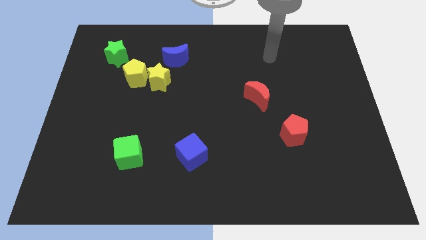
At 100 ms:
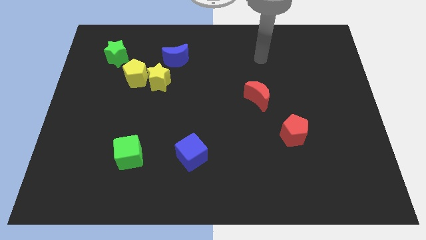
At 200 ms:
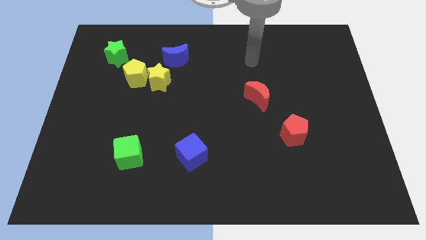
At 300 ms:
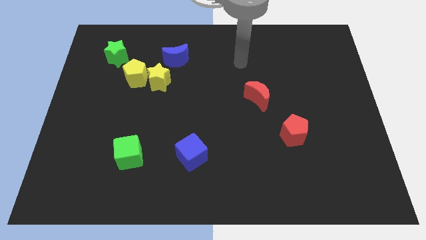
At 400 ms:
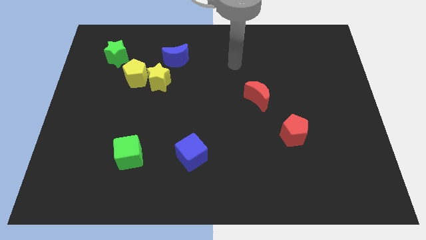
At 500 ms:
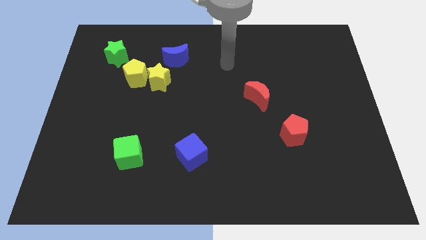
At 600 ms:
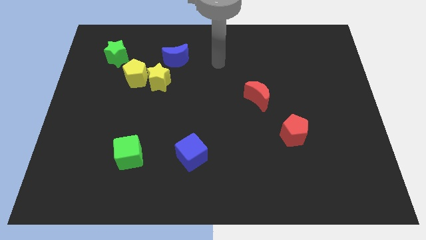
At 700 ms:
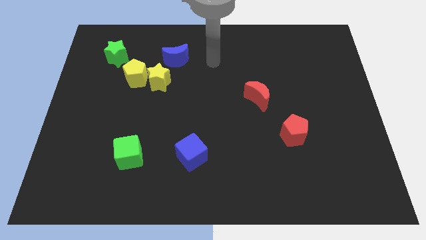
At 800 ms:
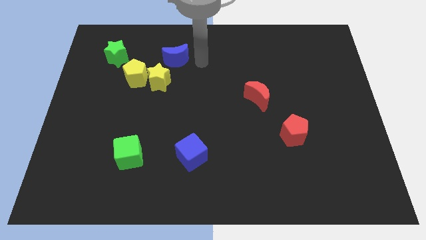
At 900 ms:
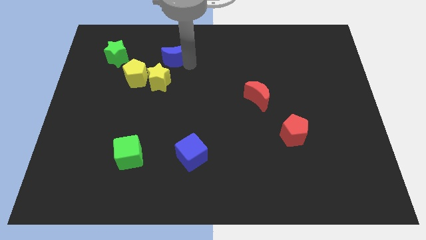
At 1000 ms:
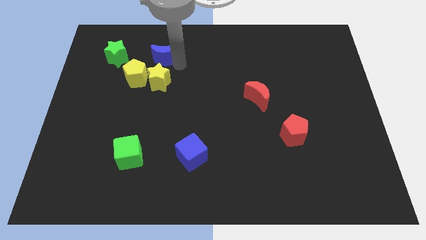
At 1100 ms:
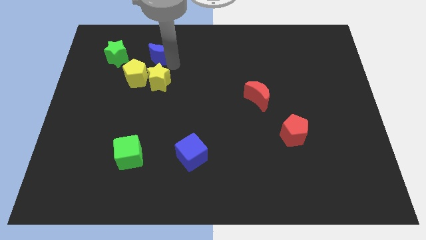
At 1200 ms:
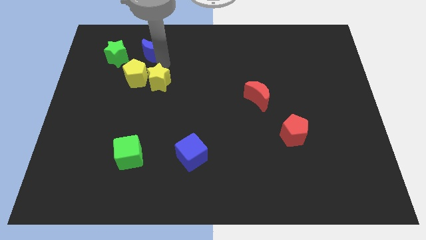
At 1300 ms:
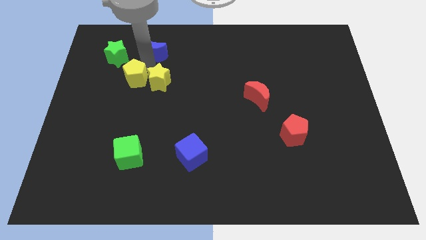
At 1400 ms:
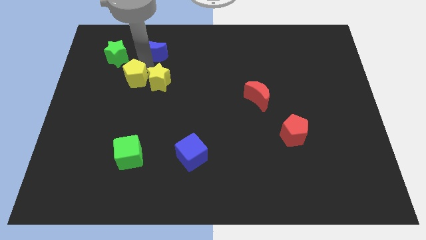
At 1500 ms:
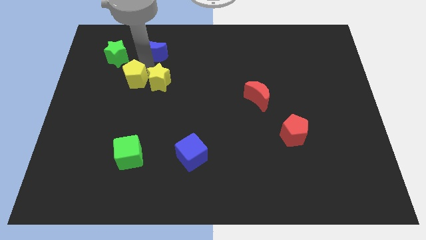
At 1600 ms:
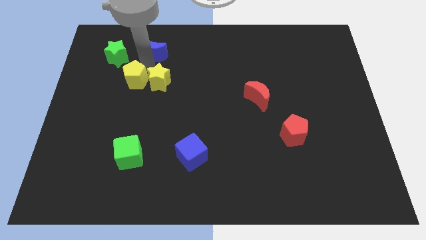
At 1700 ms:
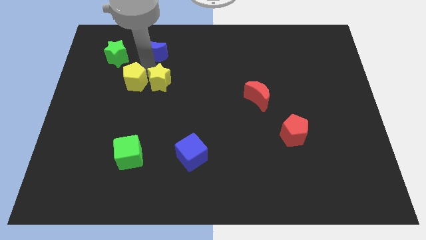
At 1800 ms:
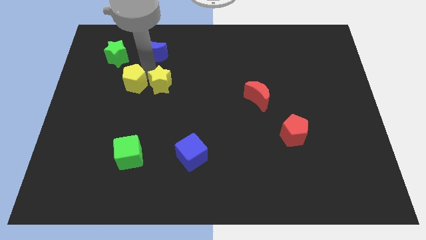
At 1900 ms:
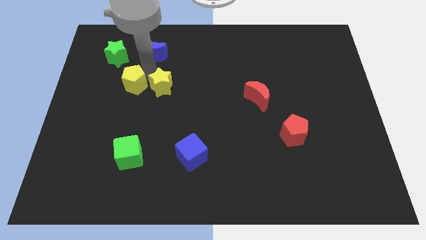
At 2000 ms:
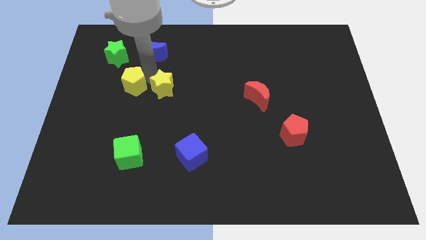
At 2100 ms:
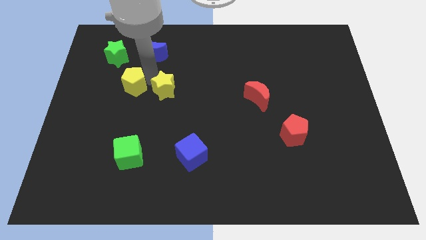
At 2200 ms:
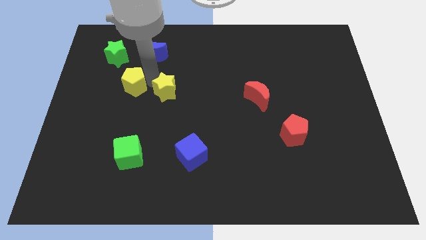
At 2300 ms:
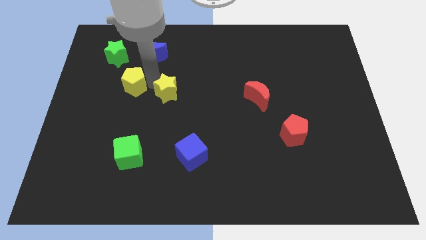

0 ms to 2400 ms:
pull the yellow star apart from the yellow pentagon and blue moon

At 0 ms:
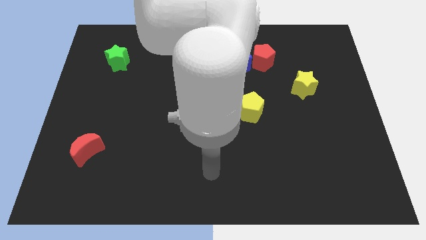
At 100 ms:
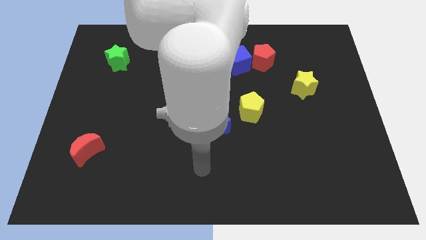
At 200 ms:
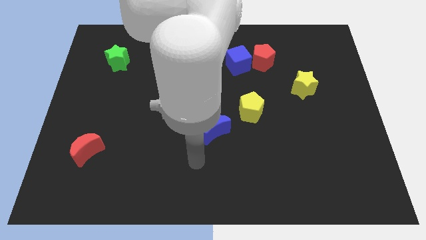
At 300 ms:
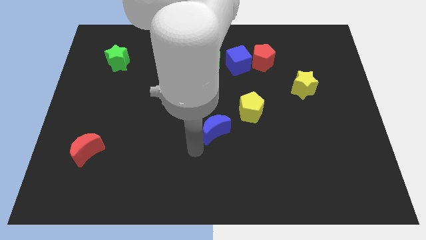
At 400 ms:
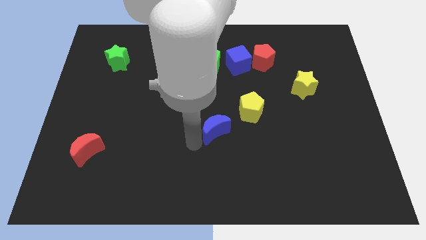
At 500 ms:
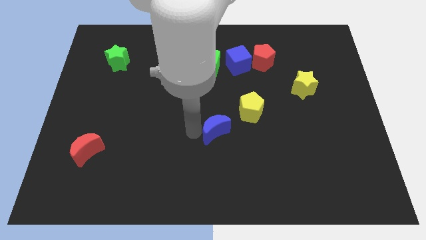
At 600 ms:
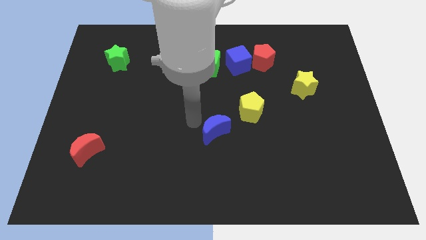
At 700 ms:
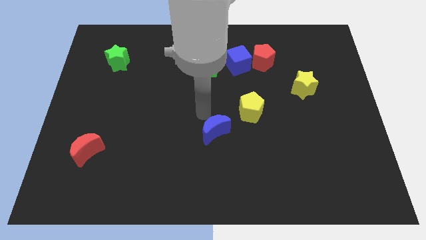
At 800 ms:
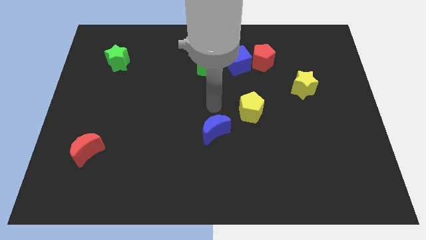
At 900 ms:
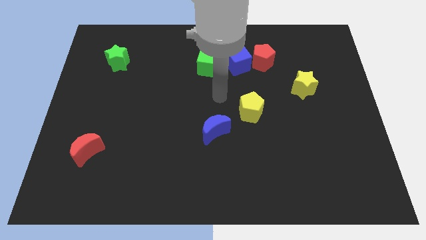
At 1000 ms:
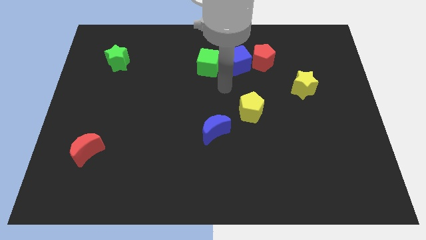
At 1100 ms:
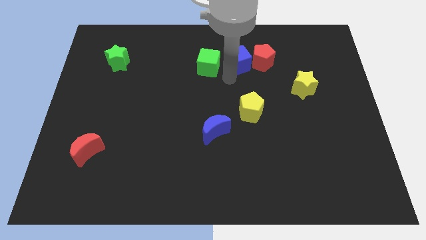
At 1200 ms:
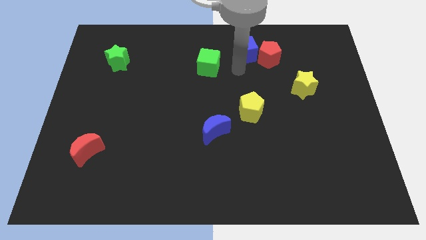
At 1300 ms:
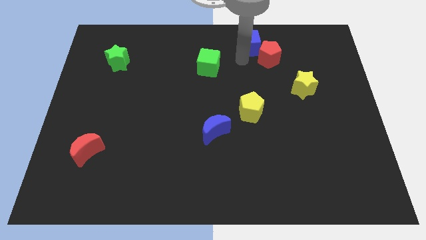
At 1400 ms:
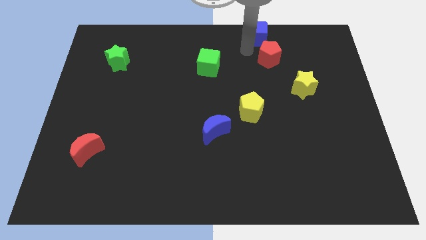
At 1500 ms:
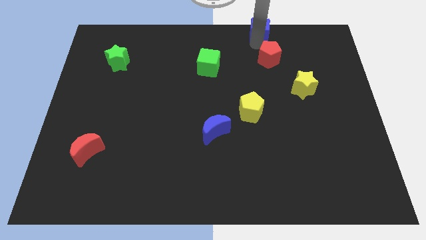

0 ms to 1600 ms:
move the red pentagon away from the blue cube

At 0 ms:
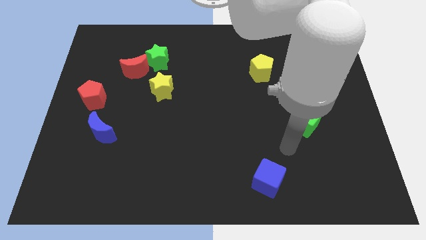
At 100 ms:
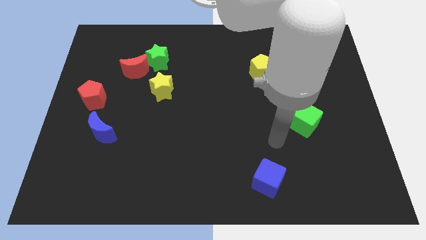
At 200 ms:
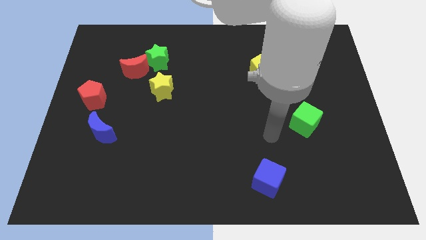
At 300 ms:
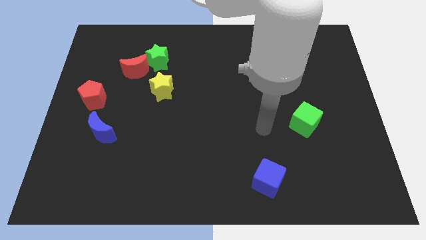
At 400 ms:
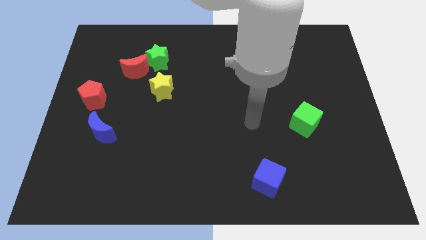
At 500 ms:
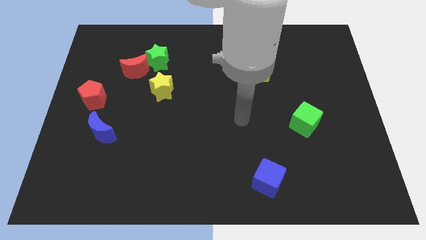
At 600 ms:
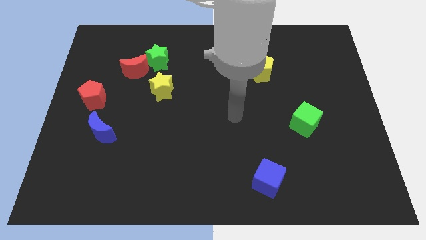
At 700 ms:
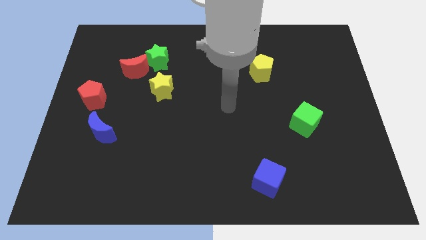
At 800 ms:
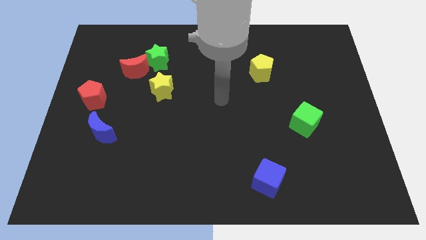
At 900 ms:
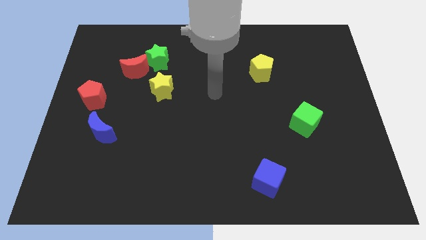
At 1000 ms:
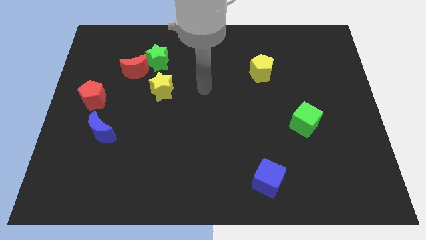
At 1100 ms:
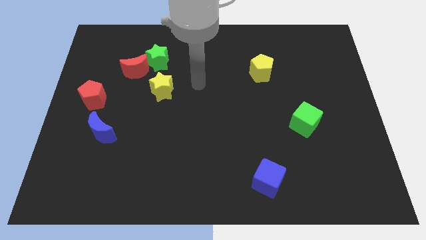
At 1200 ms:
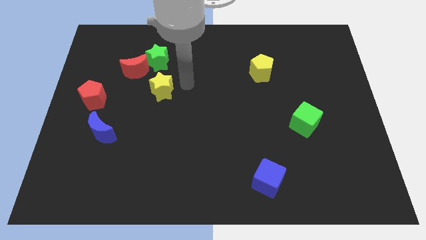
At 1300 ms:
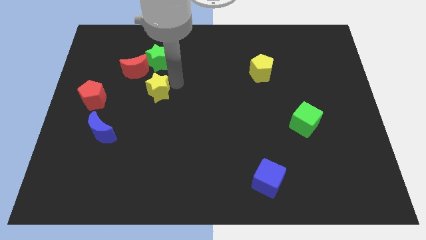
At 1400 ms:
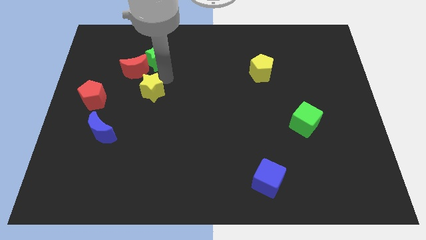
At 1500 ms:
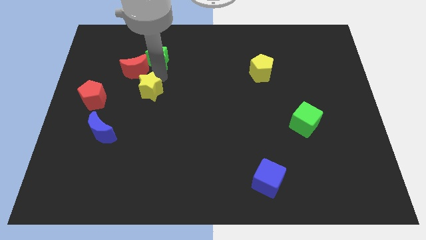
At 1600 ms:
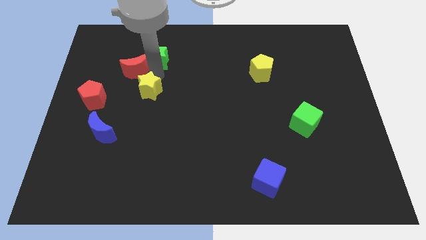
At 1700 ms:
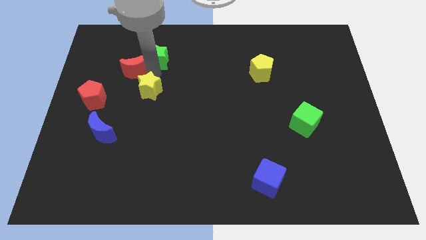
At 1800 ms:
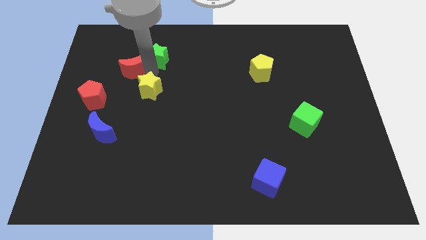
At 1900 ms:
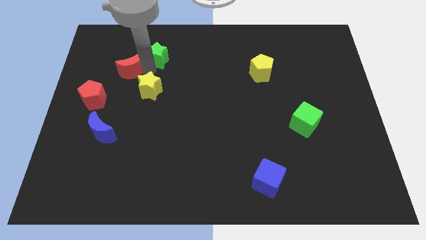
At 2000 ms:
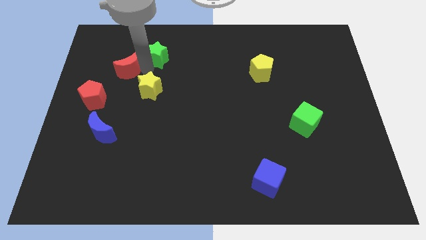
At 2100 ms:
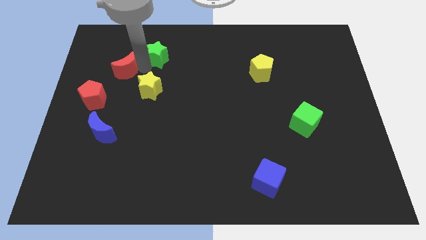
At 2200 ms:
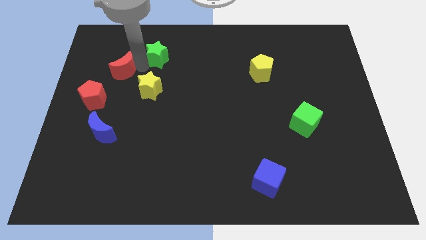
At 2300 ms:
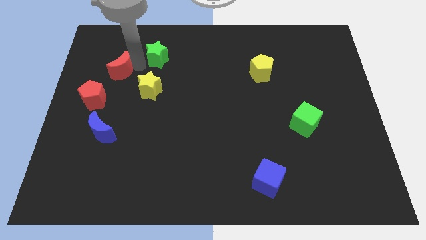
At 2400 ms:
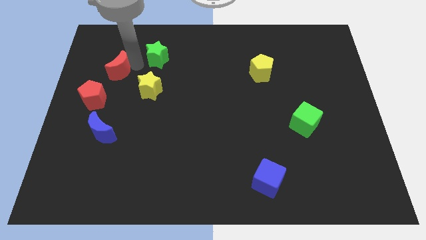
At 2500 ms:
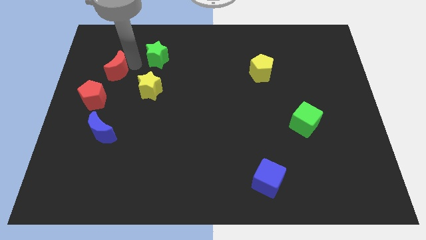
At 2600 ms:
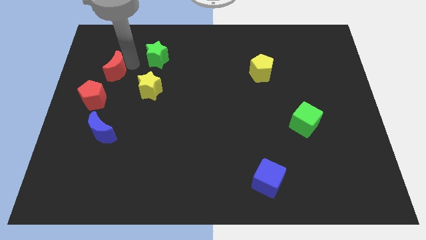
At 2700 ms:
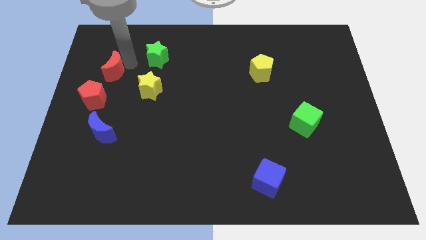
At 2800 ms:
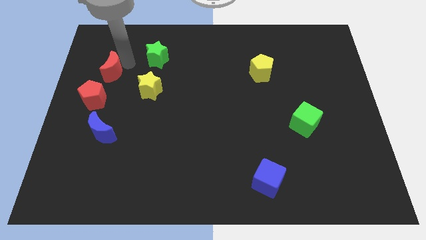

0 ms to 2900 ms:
move the red moon away from the green star and yellow star

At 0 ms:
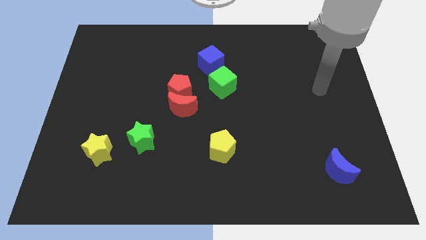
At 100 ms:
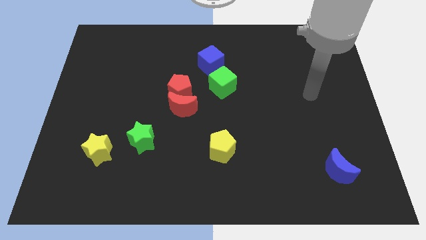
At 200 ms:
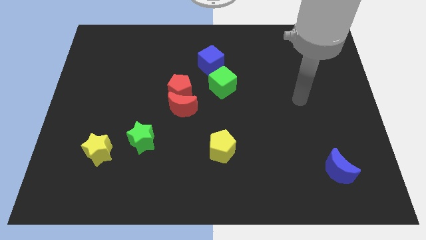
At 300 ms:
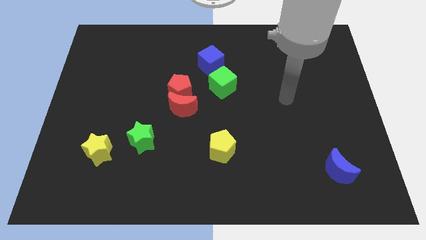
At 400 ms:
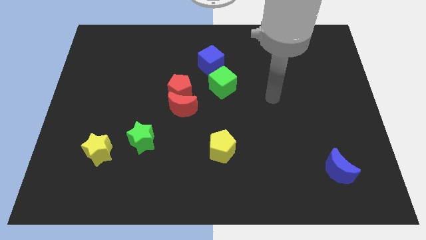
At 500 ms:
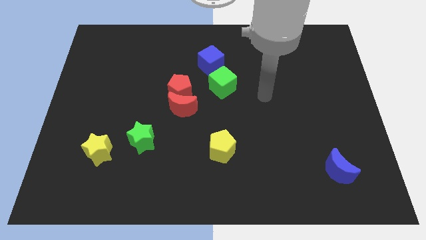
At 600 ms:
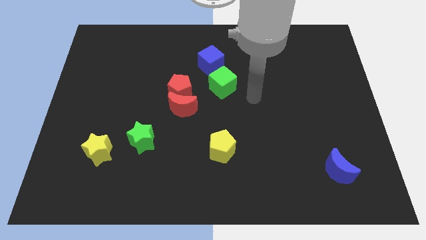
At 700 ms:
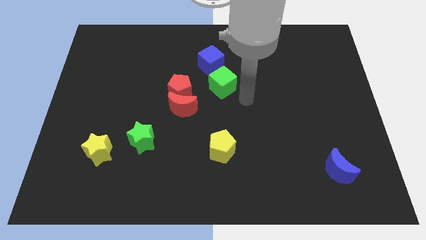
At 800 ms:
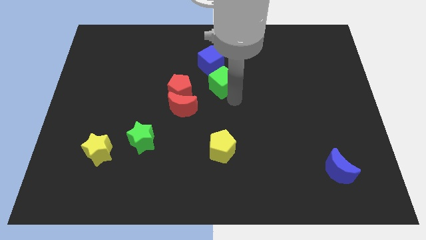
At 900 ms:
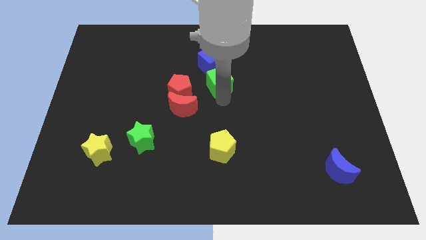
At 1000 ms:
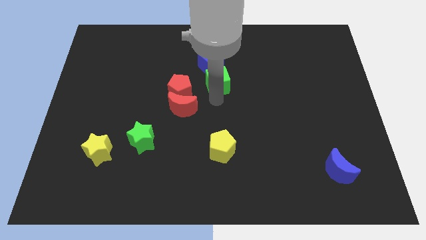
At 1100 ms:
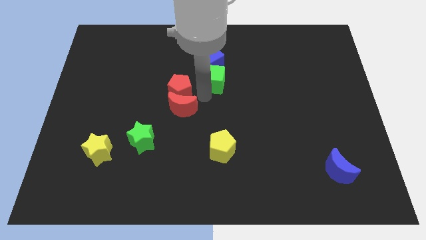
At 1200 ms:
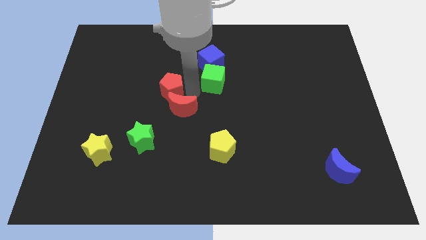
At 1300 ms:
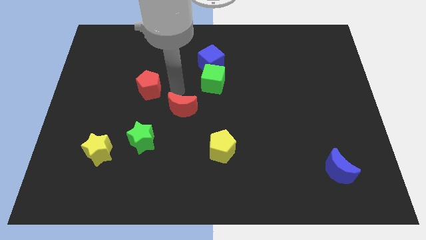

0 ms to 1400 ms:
separate the red moon from the red pentagon

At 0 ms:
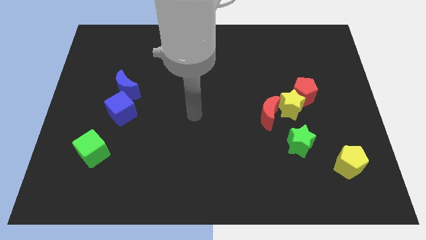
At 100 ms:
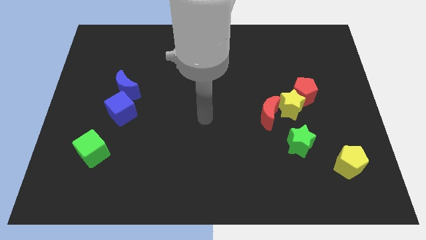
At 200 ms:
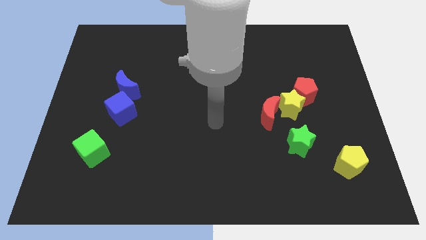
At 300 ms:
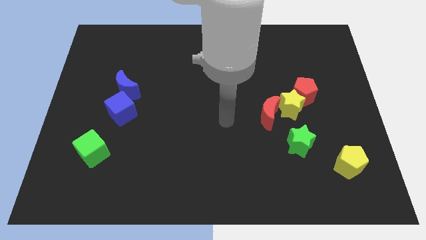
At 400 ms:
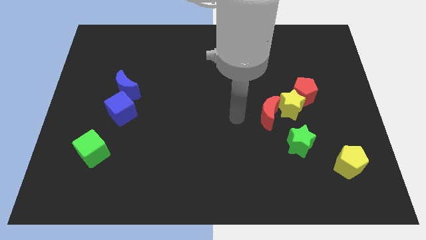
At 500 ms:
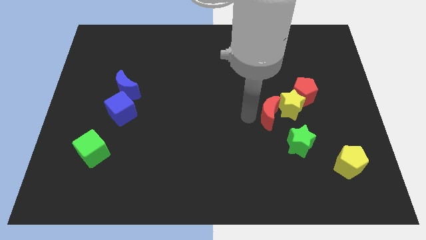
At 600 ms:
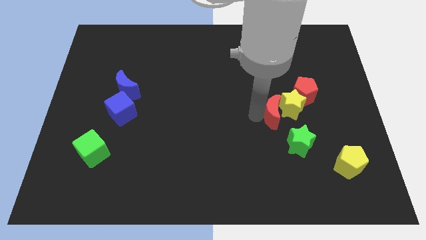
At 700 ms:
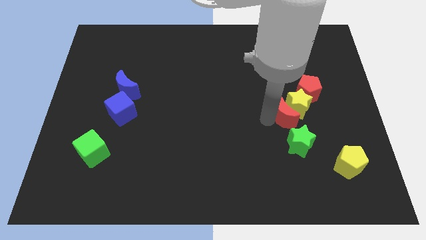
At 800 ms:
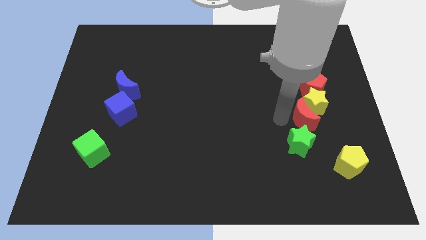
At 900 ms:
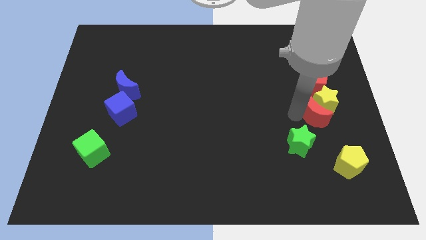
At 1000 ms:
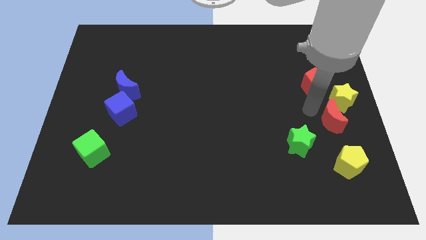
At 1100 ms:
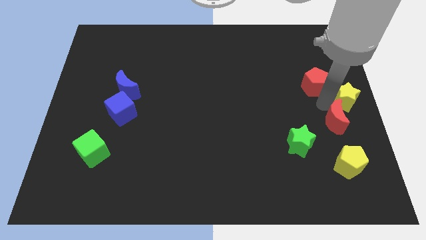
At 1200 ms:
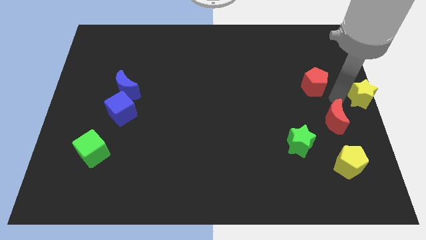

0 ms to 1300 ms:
move the red pentagon away from the yellow star
